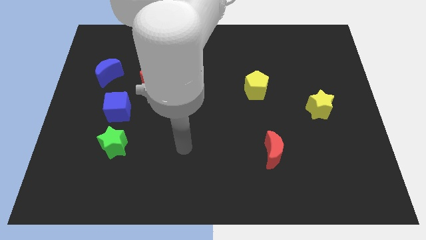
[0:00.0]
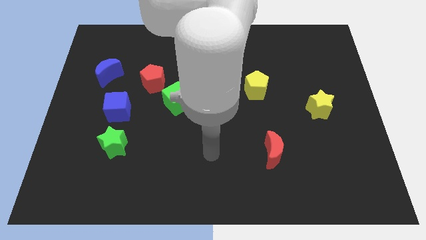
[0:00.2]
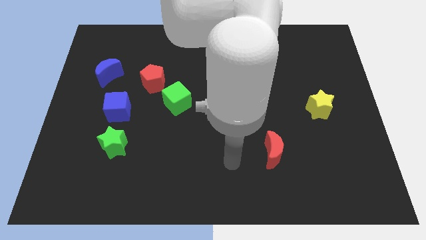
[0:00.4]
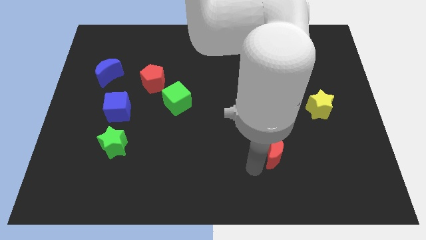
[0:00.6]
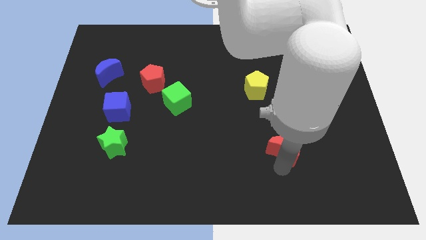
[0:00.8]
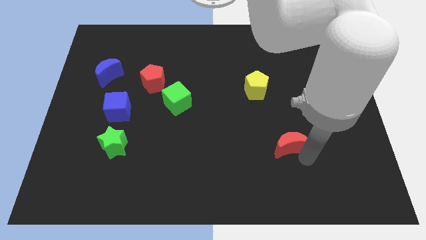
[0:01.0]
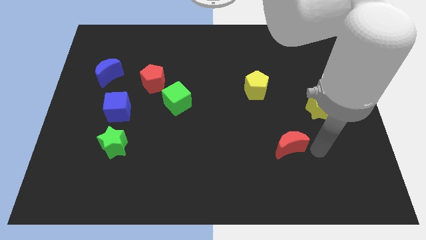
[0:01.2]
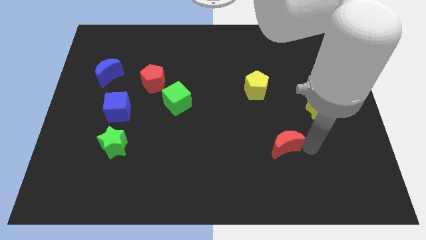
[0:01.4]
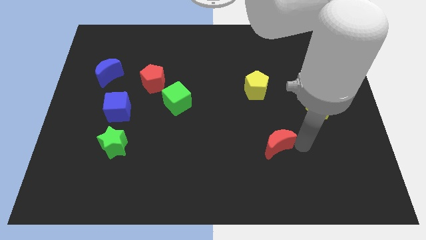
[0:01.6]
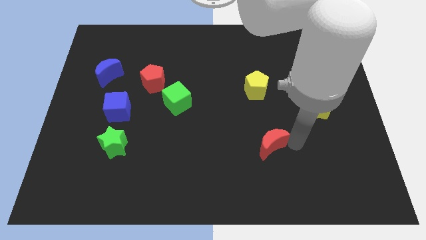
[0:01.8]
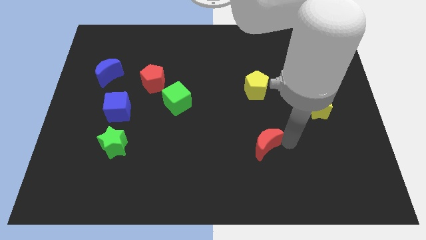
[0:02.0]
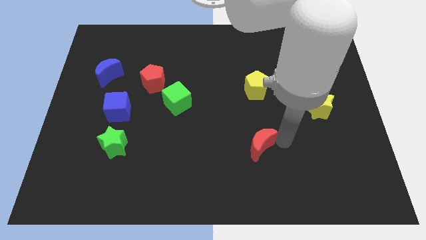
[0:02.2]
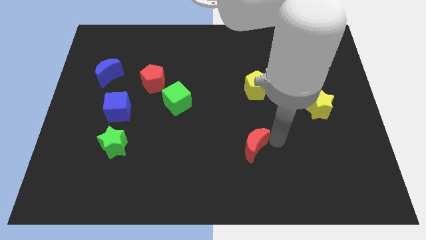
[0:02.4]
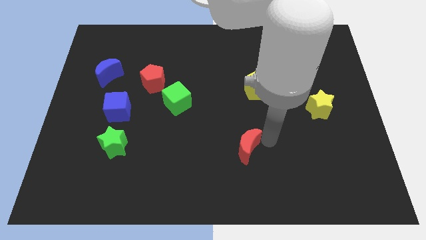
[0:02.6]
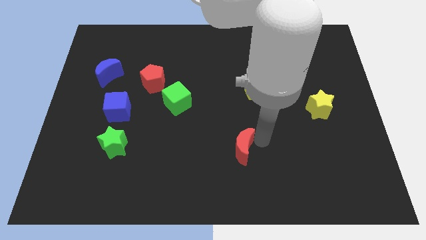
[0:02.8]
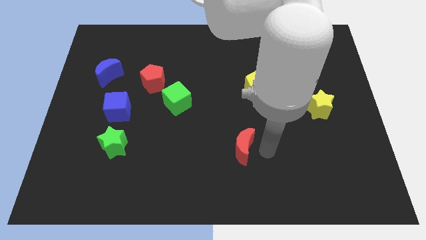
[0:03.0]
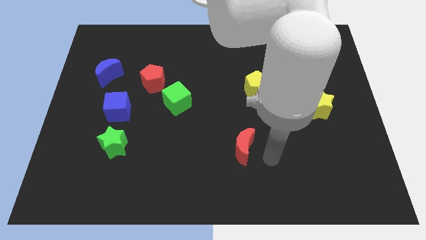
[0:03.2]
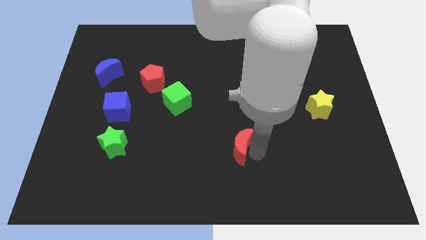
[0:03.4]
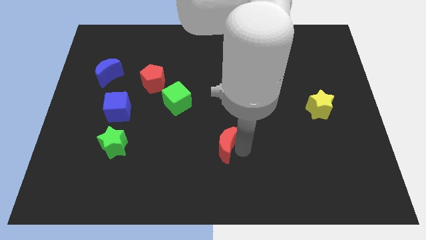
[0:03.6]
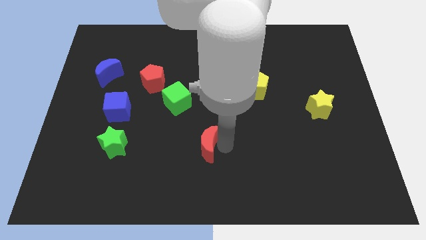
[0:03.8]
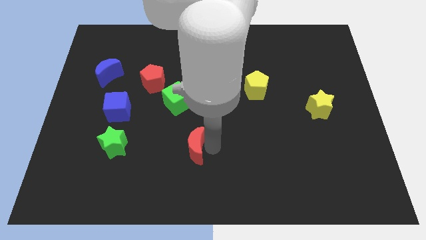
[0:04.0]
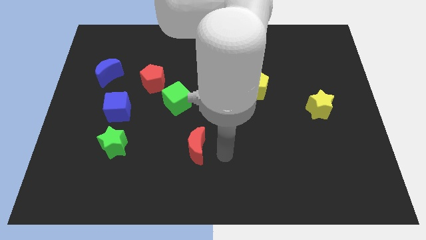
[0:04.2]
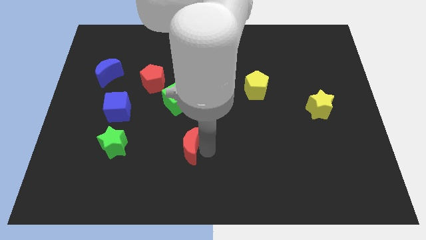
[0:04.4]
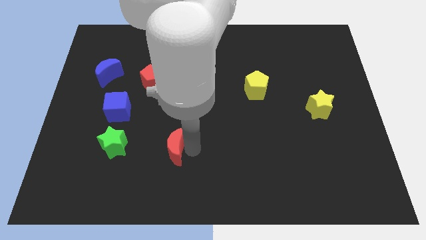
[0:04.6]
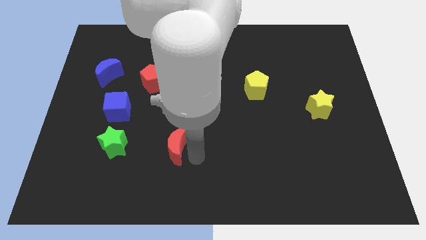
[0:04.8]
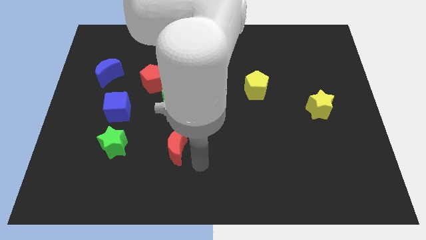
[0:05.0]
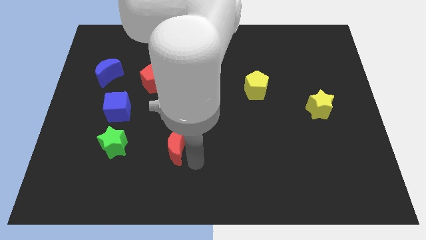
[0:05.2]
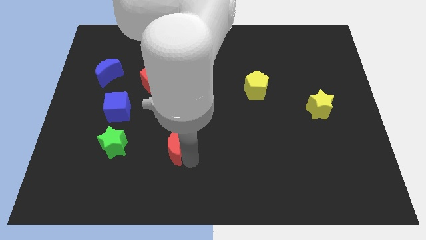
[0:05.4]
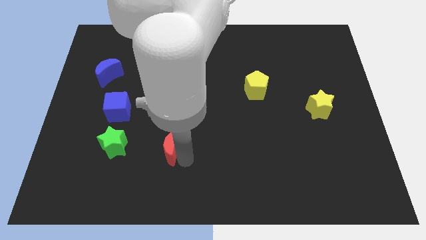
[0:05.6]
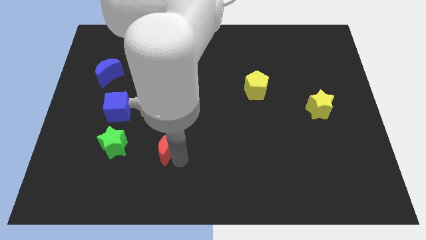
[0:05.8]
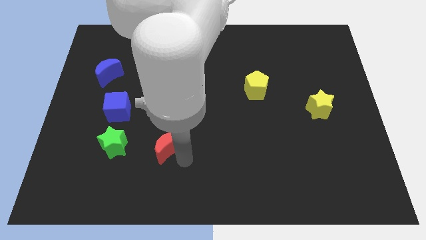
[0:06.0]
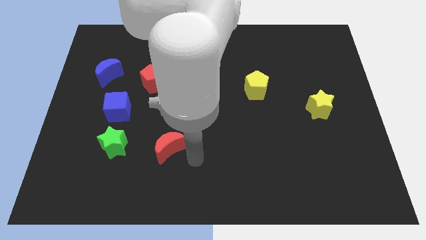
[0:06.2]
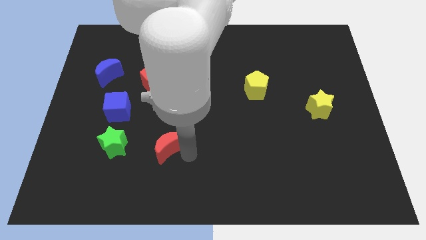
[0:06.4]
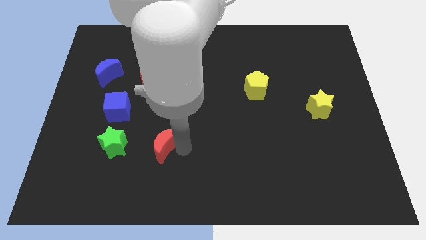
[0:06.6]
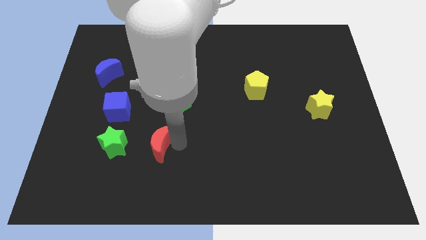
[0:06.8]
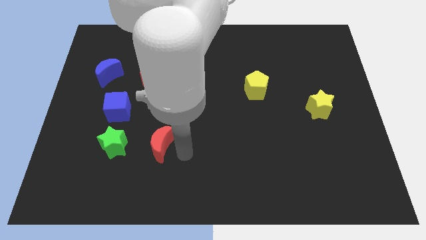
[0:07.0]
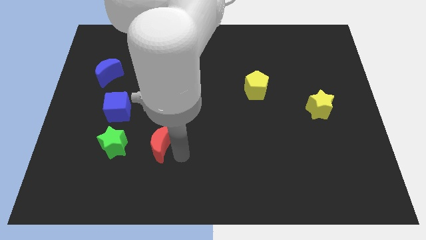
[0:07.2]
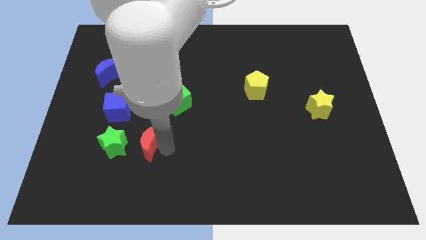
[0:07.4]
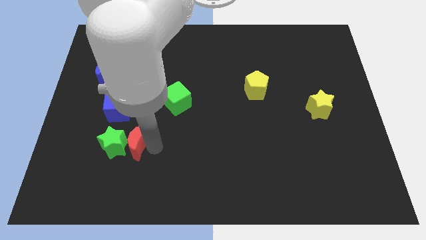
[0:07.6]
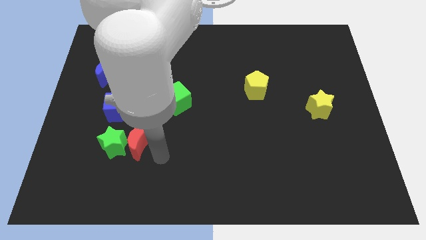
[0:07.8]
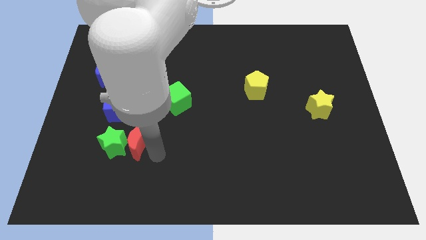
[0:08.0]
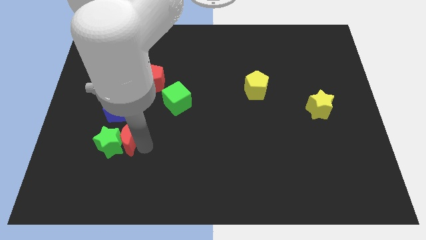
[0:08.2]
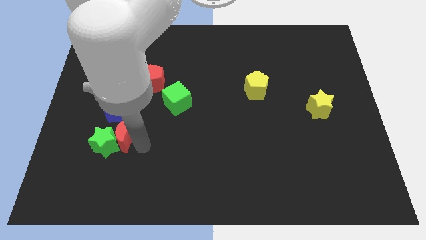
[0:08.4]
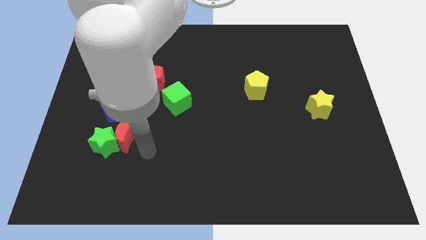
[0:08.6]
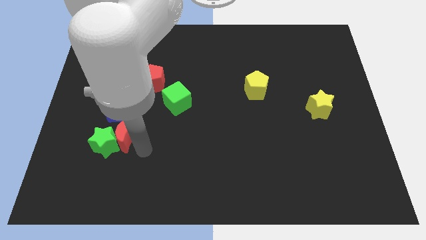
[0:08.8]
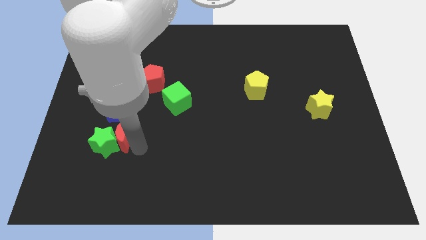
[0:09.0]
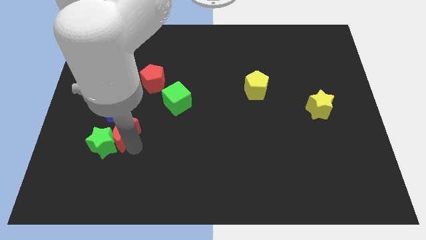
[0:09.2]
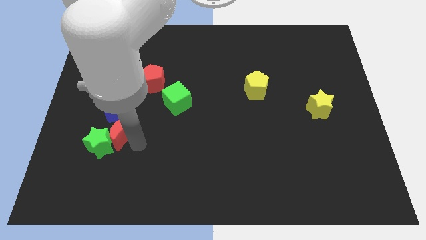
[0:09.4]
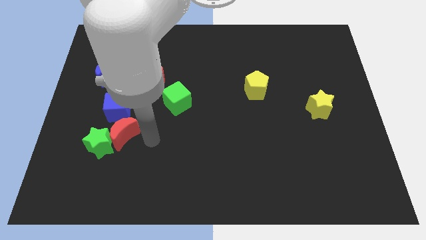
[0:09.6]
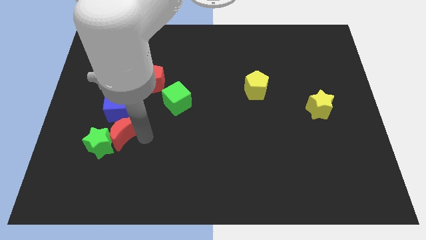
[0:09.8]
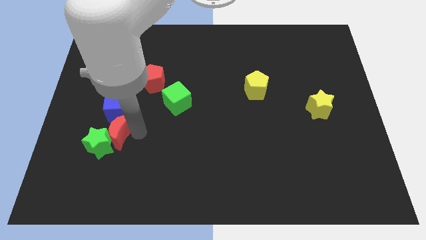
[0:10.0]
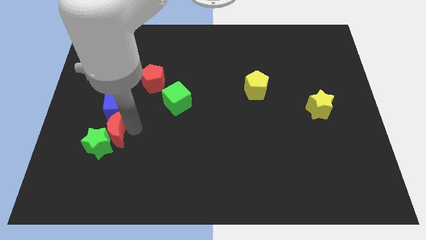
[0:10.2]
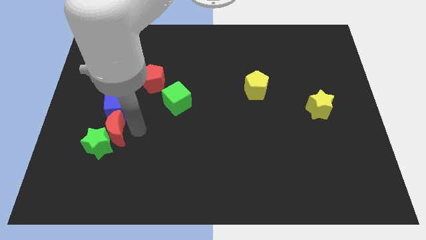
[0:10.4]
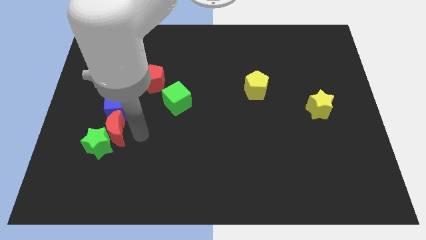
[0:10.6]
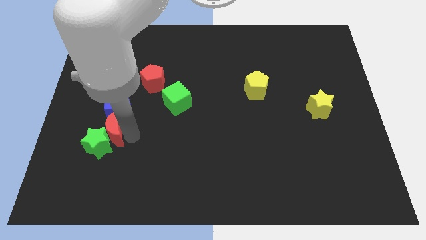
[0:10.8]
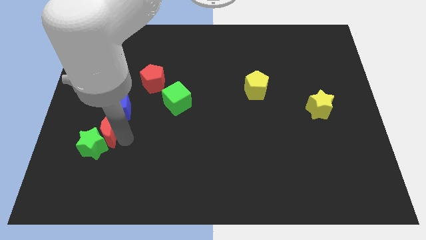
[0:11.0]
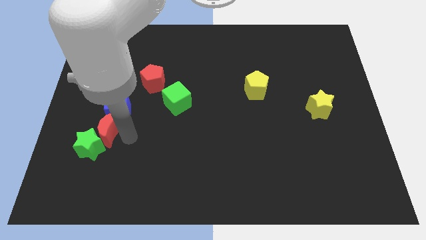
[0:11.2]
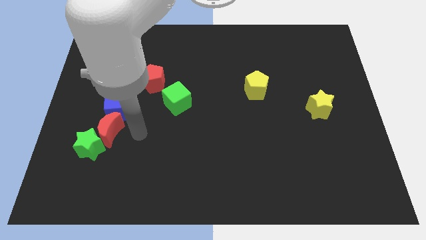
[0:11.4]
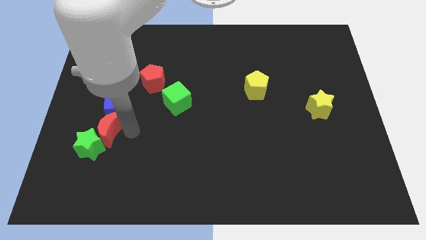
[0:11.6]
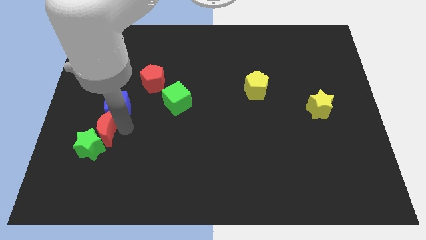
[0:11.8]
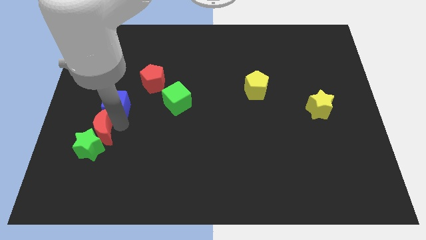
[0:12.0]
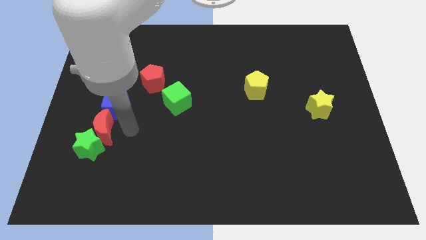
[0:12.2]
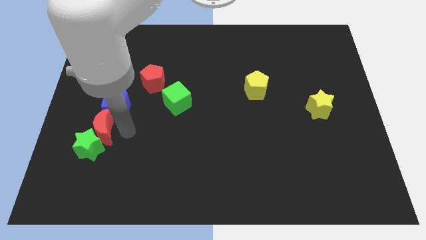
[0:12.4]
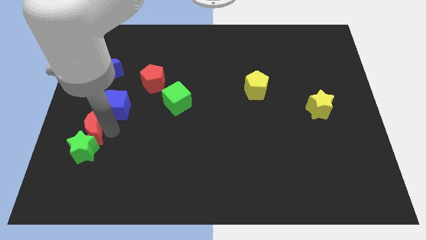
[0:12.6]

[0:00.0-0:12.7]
slide the red moon to the top left side of the green star

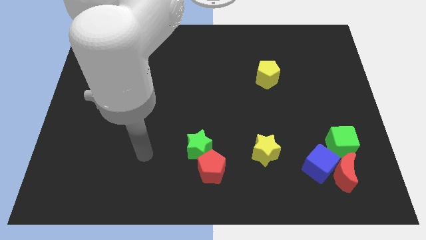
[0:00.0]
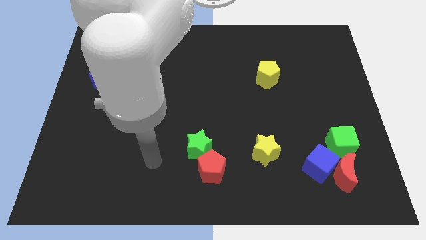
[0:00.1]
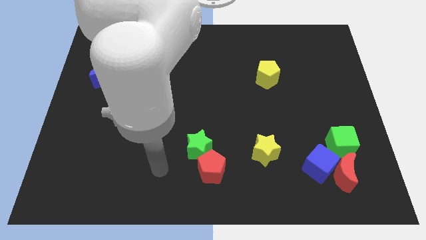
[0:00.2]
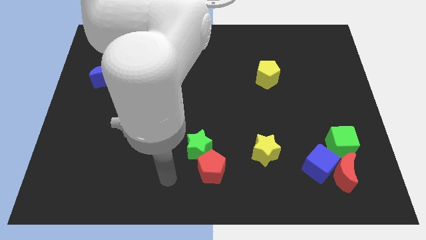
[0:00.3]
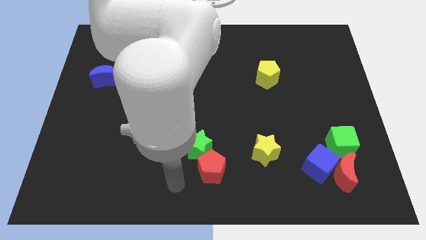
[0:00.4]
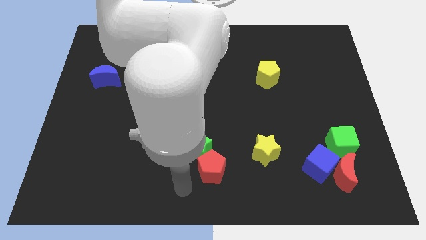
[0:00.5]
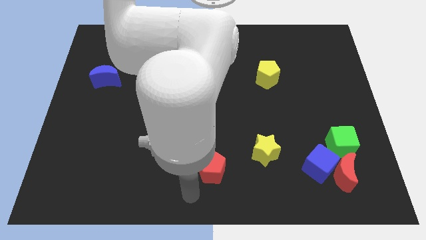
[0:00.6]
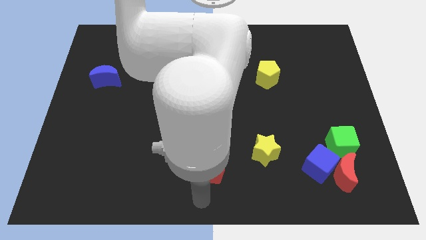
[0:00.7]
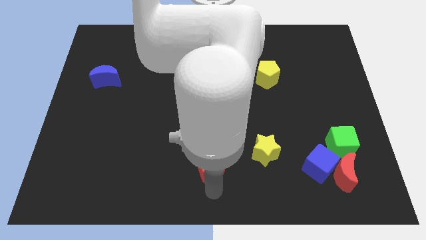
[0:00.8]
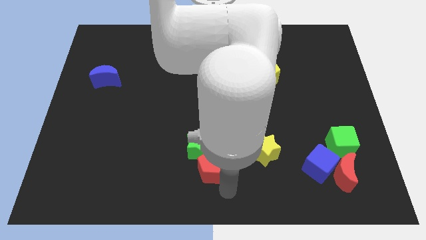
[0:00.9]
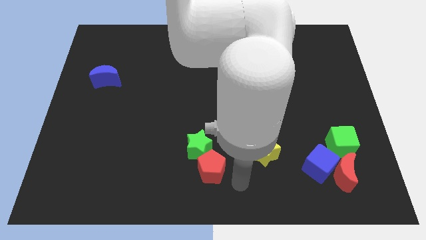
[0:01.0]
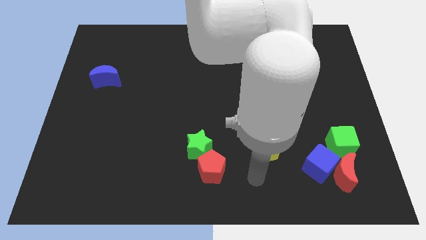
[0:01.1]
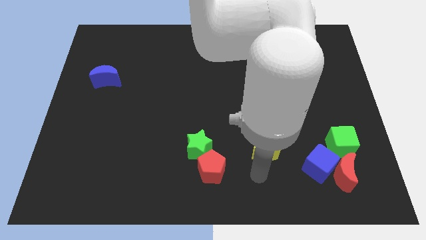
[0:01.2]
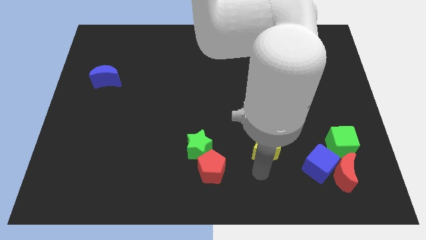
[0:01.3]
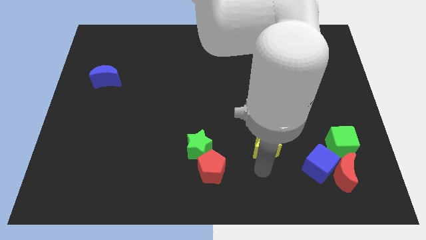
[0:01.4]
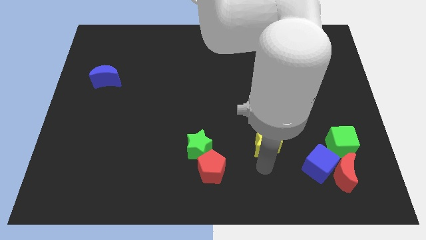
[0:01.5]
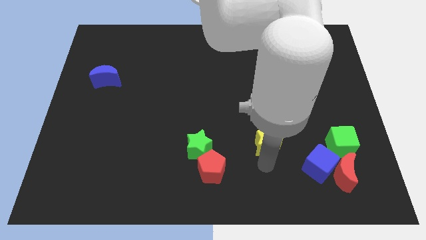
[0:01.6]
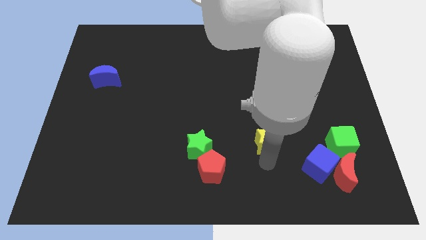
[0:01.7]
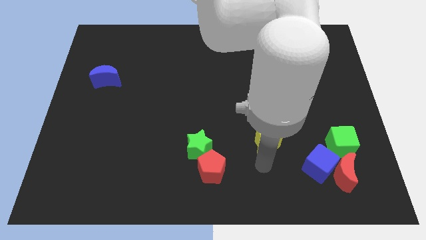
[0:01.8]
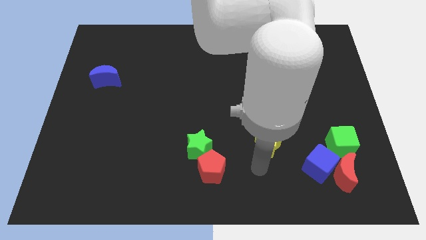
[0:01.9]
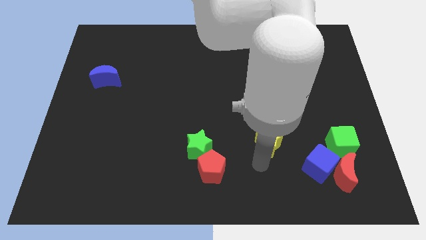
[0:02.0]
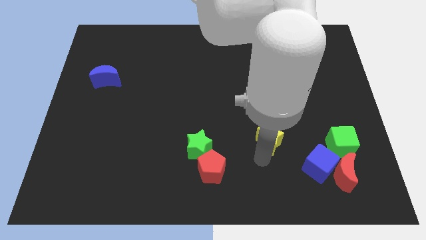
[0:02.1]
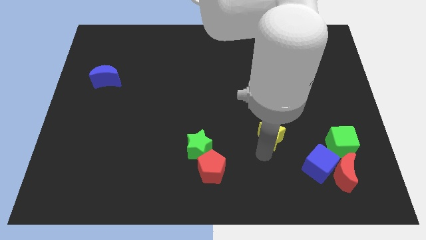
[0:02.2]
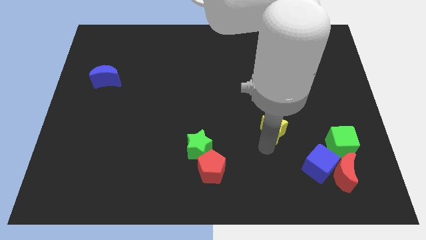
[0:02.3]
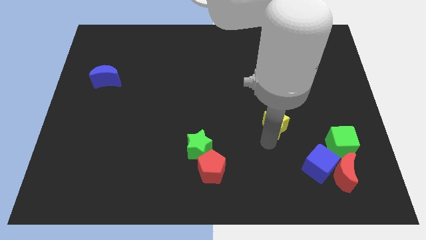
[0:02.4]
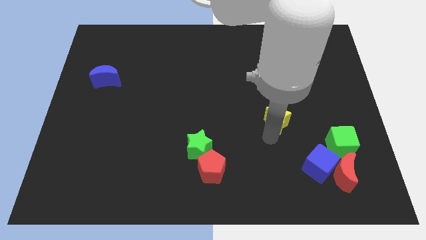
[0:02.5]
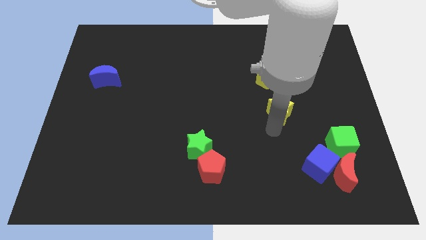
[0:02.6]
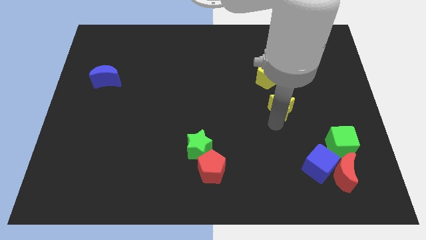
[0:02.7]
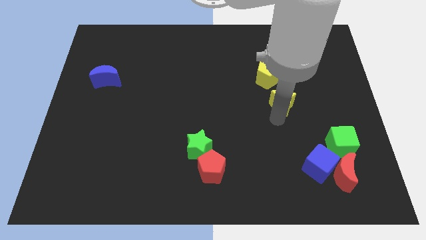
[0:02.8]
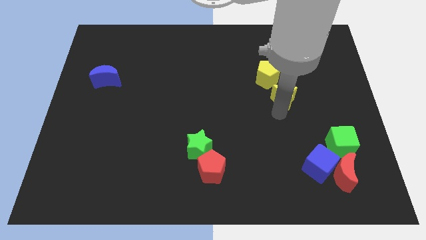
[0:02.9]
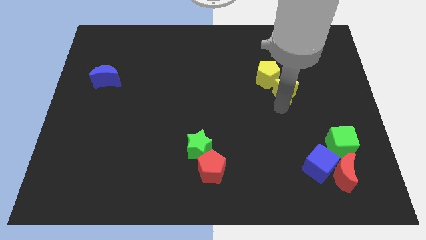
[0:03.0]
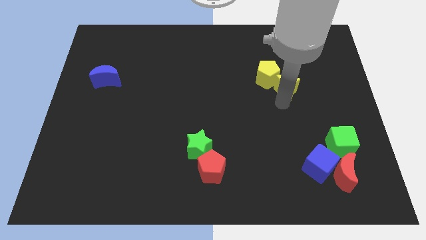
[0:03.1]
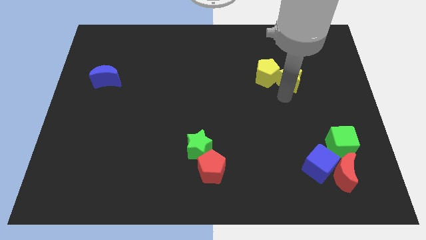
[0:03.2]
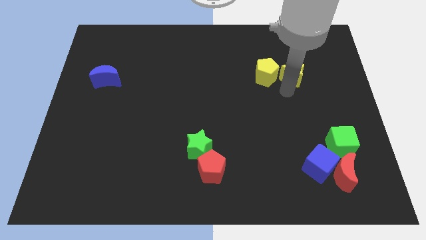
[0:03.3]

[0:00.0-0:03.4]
move the yellow star diagonally up and to the right of the yellow pentagon
